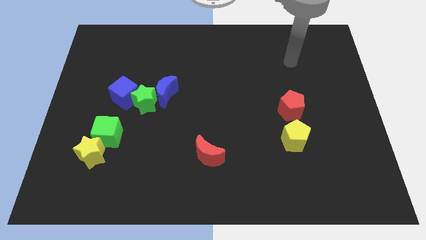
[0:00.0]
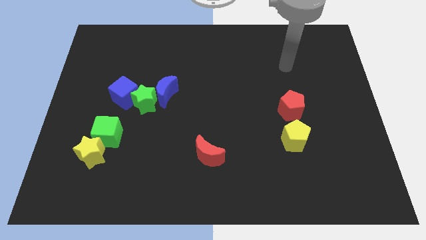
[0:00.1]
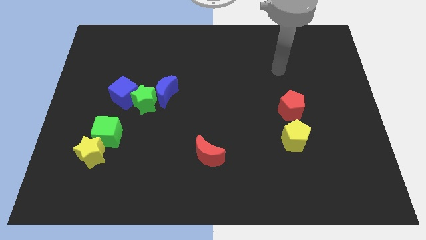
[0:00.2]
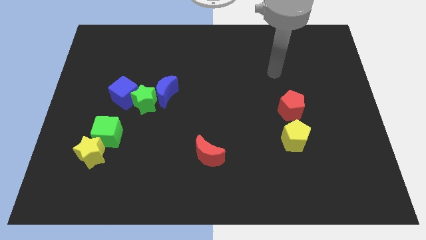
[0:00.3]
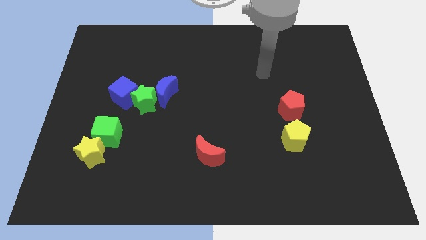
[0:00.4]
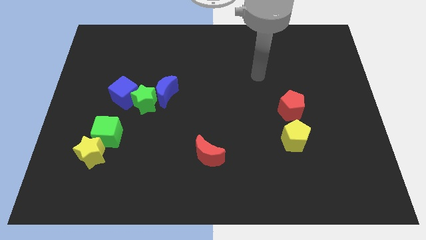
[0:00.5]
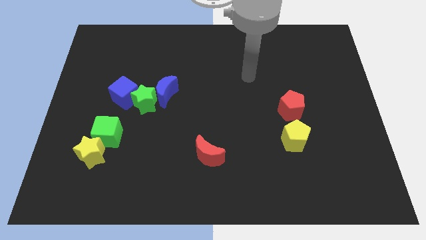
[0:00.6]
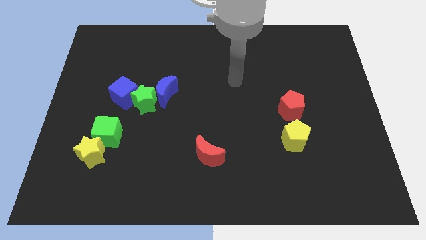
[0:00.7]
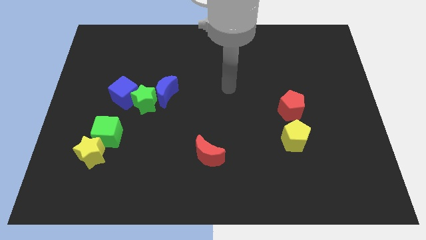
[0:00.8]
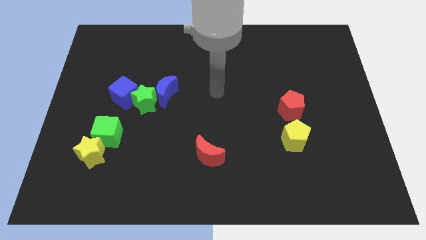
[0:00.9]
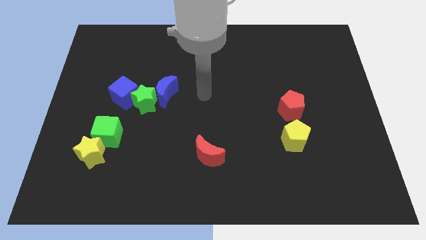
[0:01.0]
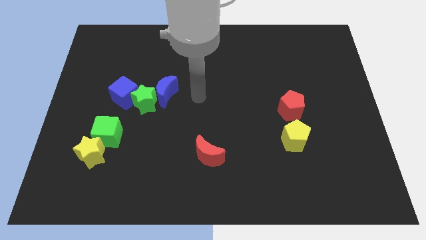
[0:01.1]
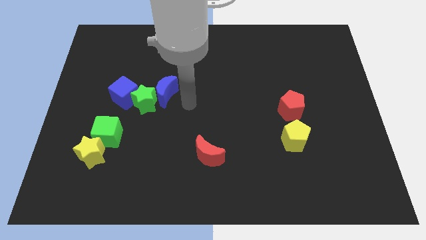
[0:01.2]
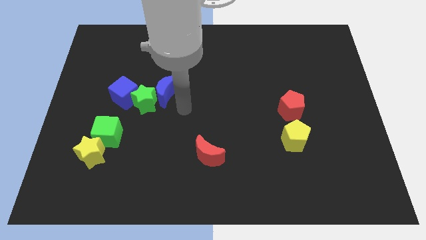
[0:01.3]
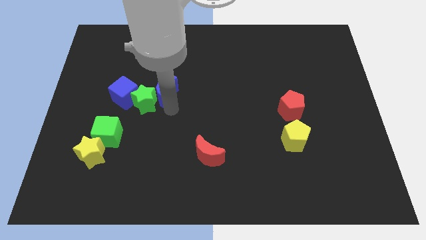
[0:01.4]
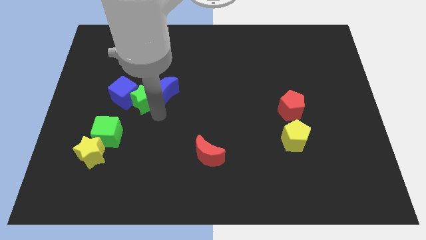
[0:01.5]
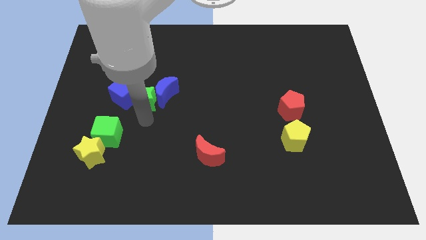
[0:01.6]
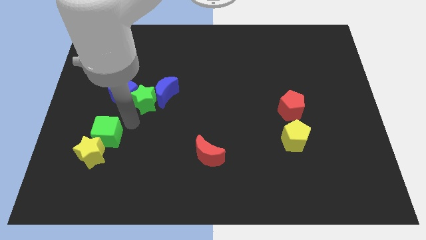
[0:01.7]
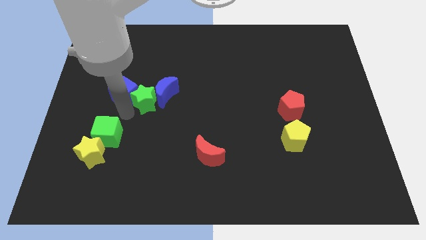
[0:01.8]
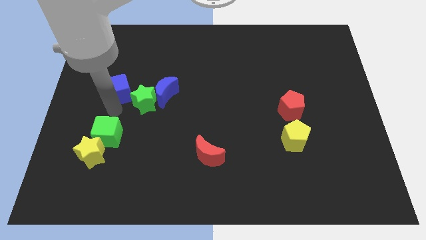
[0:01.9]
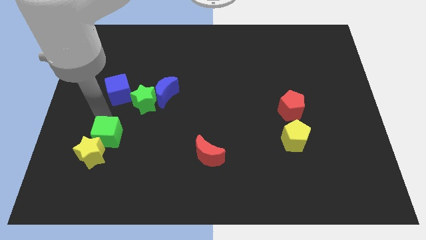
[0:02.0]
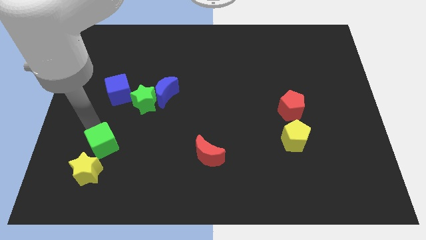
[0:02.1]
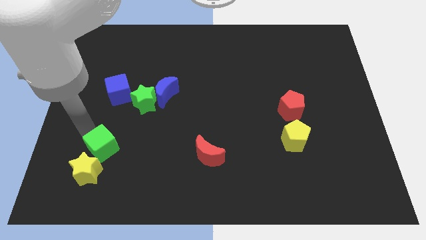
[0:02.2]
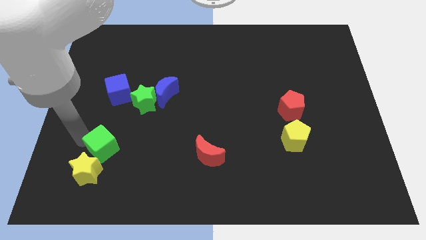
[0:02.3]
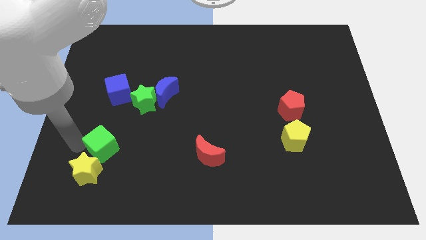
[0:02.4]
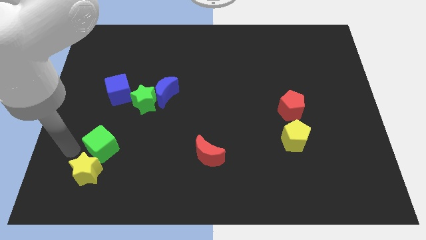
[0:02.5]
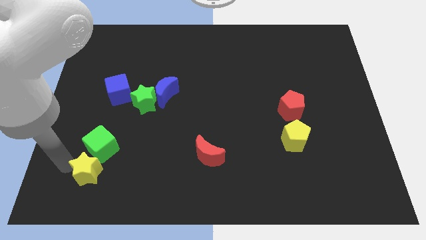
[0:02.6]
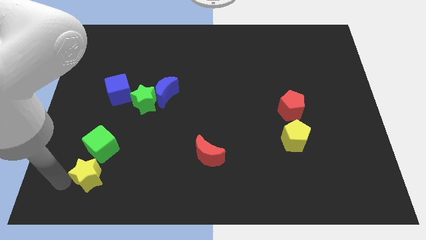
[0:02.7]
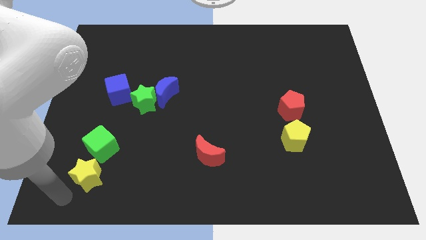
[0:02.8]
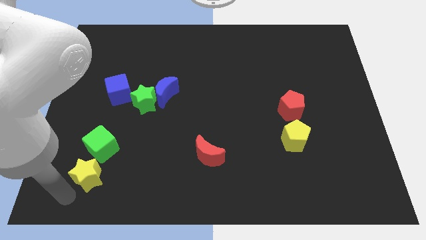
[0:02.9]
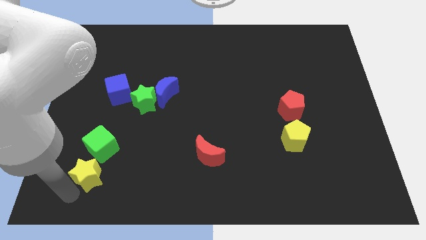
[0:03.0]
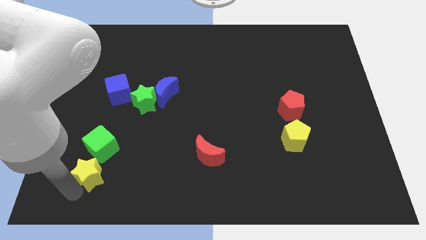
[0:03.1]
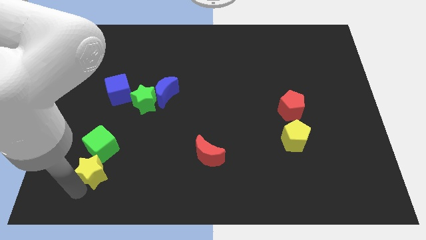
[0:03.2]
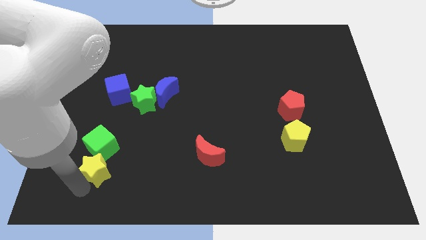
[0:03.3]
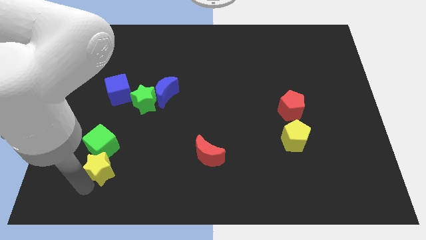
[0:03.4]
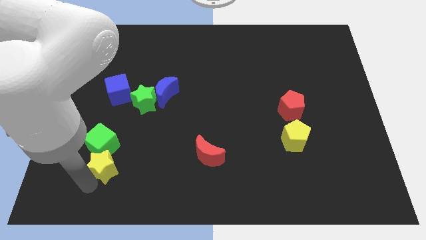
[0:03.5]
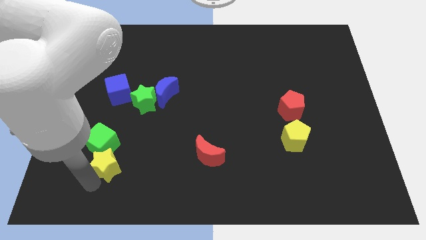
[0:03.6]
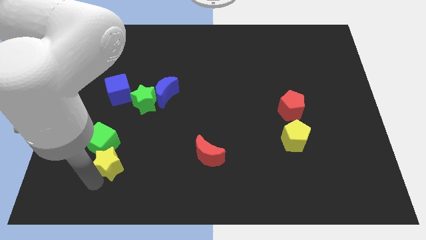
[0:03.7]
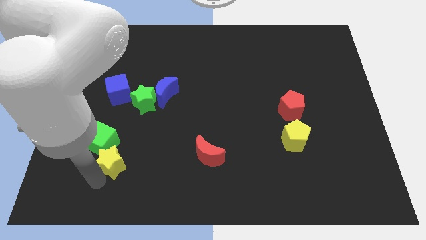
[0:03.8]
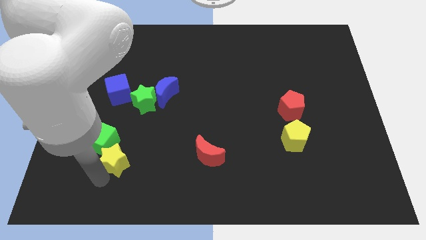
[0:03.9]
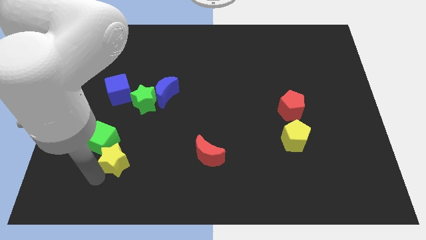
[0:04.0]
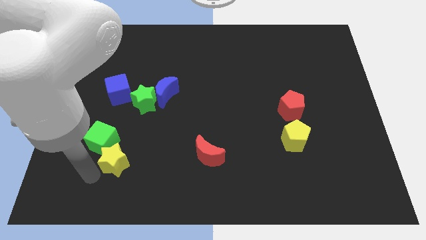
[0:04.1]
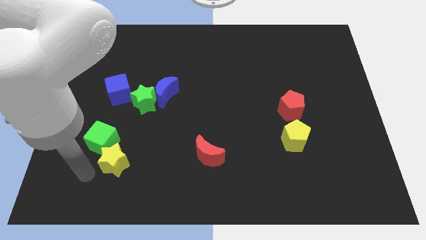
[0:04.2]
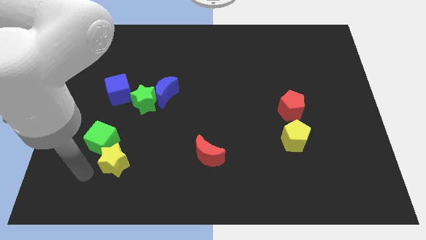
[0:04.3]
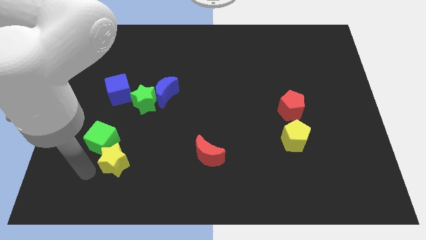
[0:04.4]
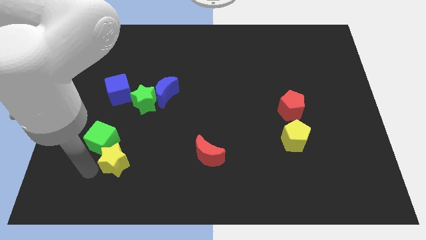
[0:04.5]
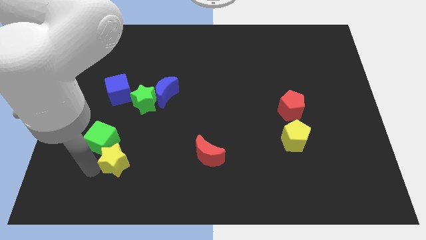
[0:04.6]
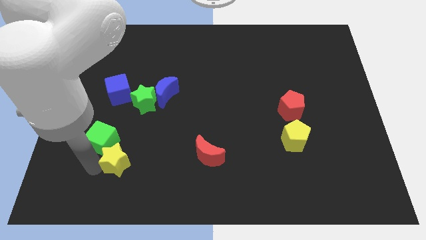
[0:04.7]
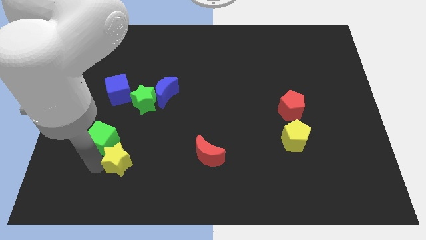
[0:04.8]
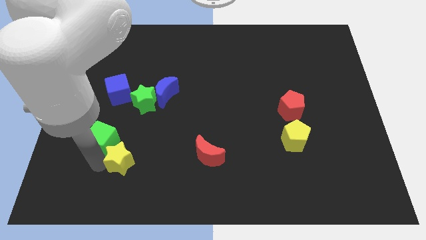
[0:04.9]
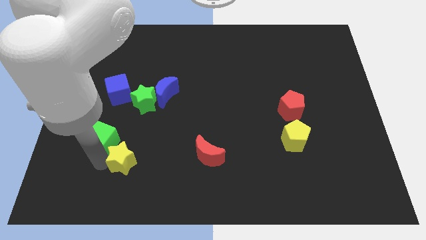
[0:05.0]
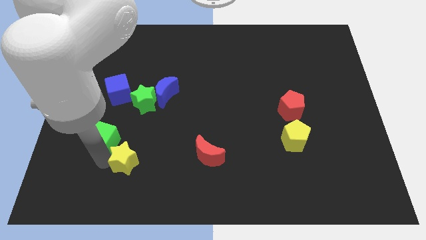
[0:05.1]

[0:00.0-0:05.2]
push the yellow star right a little bit

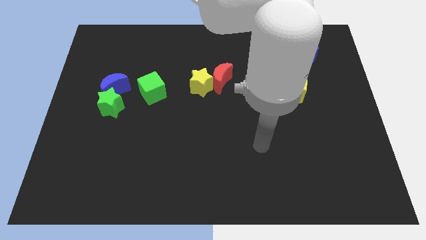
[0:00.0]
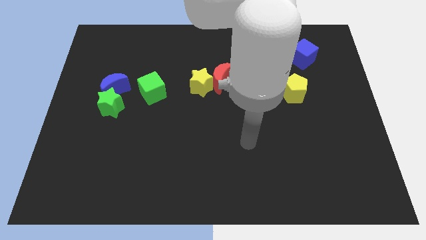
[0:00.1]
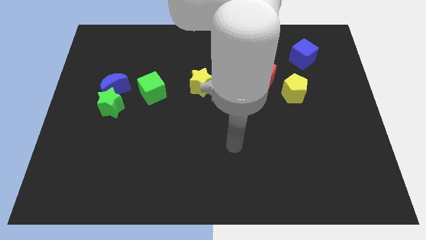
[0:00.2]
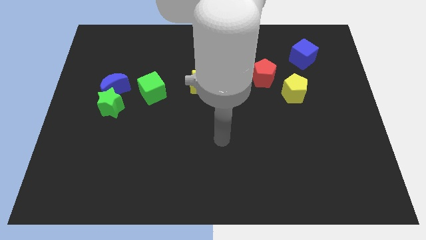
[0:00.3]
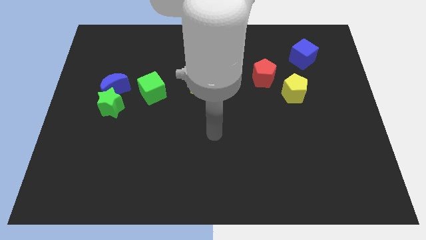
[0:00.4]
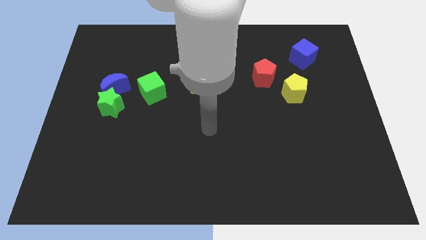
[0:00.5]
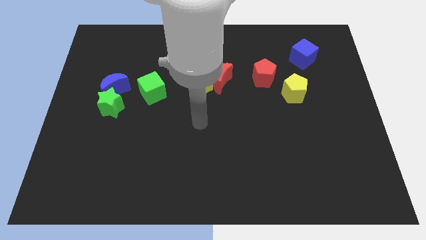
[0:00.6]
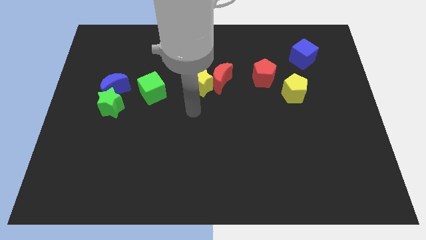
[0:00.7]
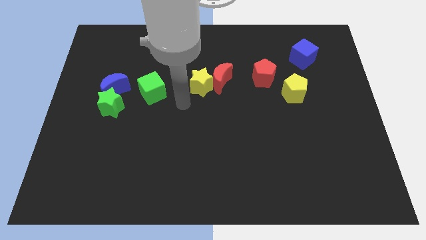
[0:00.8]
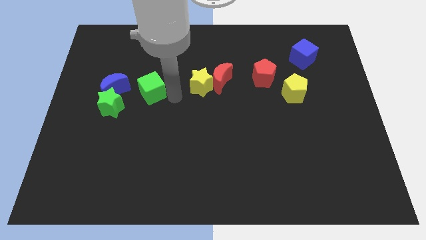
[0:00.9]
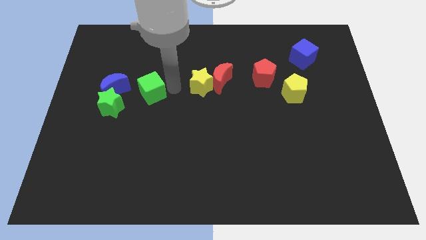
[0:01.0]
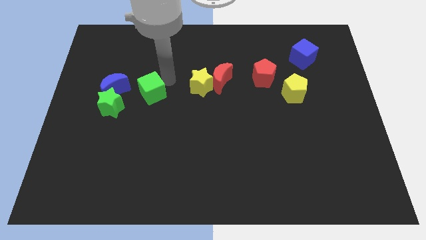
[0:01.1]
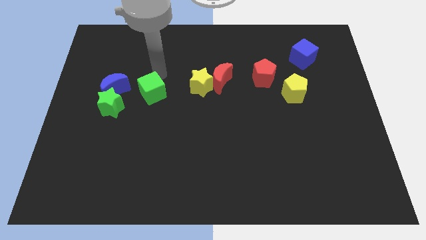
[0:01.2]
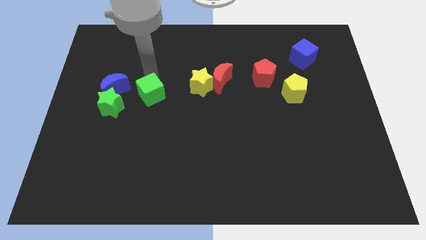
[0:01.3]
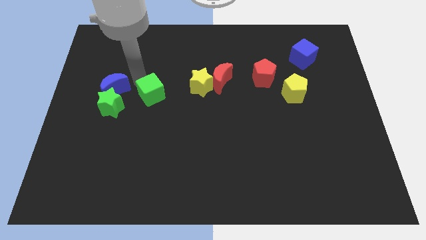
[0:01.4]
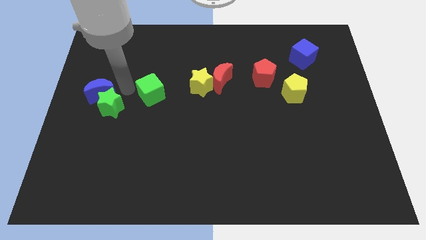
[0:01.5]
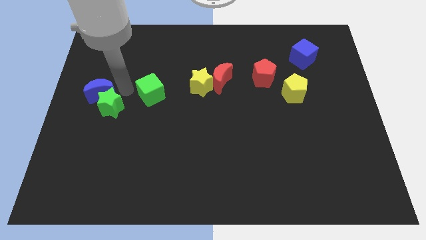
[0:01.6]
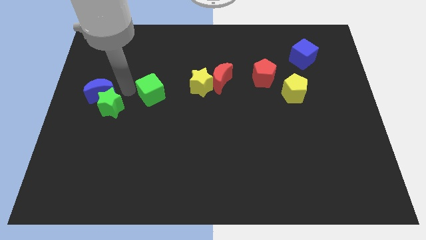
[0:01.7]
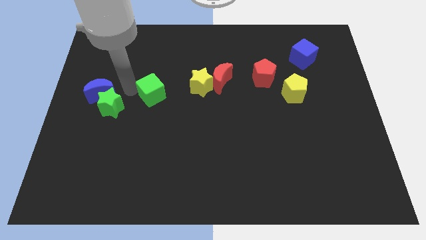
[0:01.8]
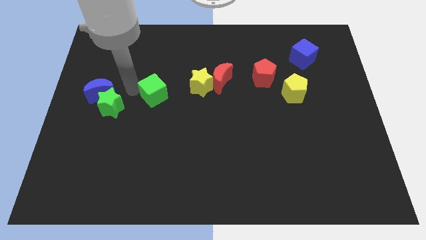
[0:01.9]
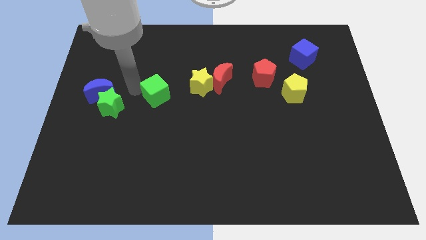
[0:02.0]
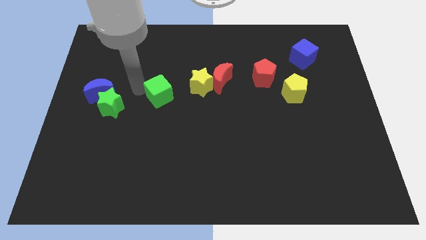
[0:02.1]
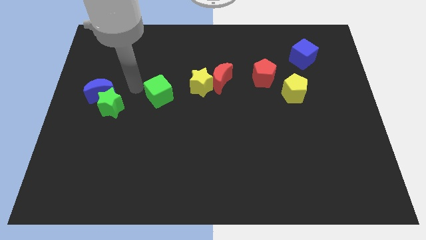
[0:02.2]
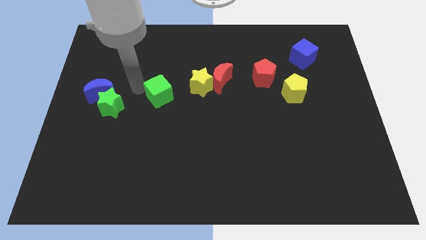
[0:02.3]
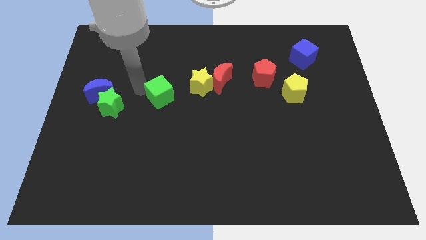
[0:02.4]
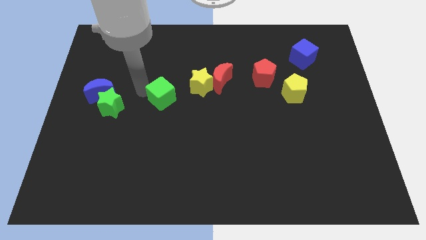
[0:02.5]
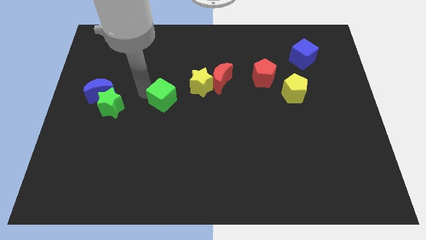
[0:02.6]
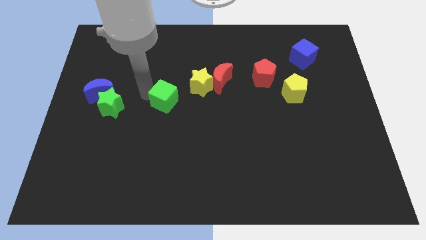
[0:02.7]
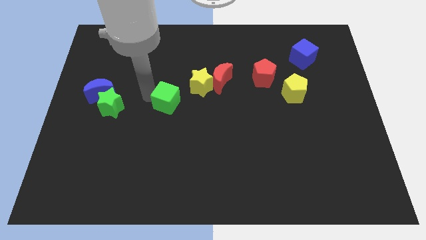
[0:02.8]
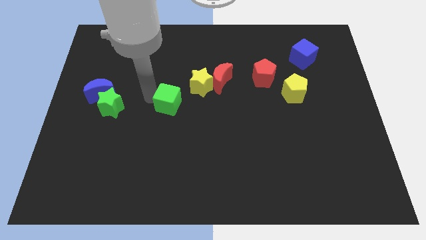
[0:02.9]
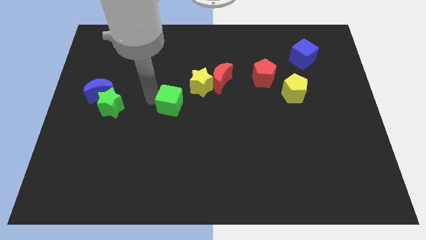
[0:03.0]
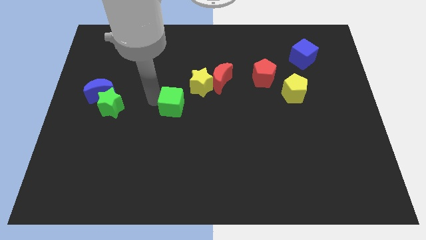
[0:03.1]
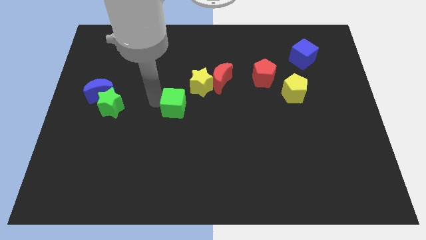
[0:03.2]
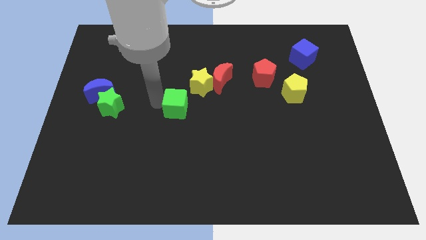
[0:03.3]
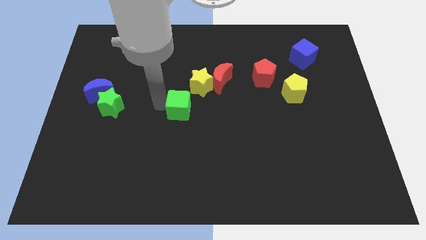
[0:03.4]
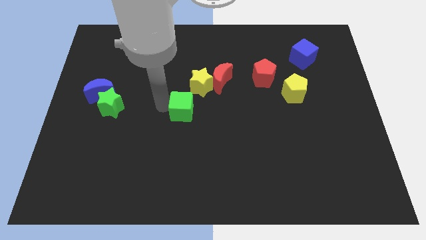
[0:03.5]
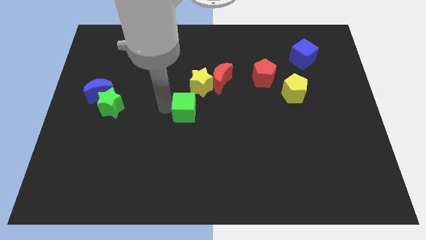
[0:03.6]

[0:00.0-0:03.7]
slightly move the green cube right
